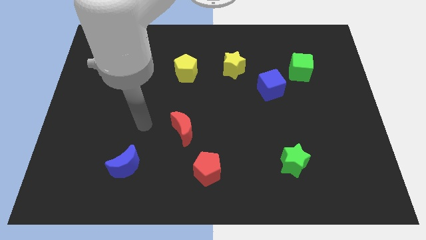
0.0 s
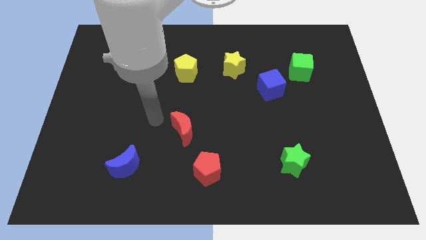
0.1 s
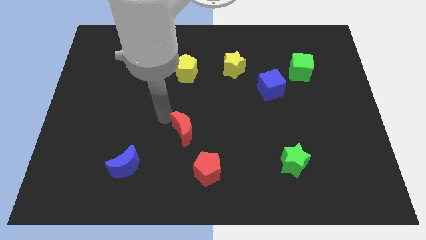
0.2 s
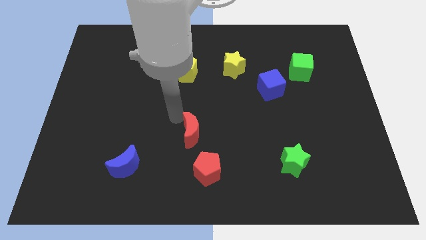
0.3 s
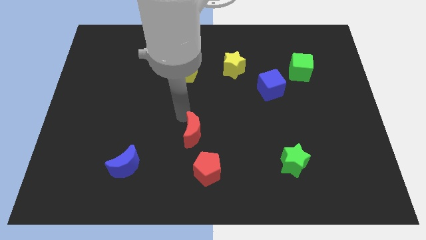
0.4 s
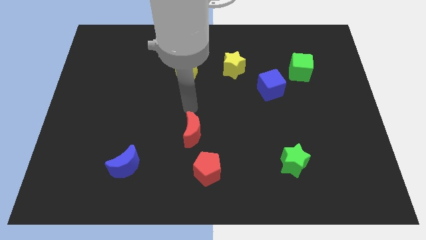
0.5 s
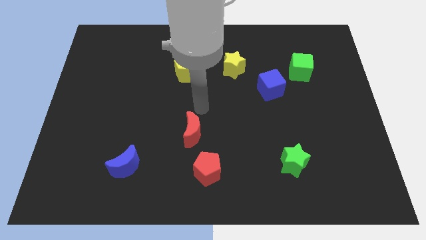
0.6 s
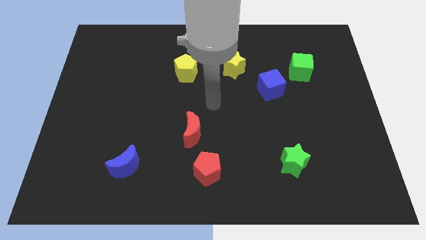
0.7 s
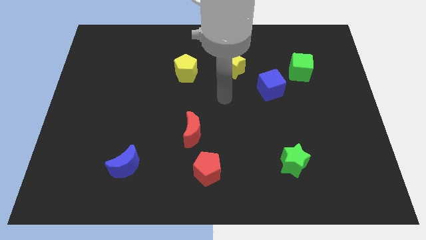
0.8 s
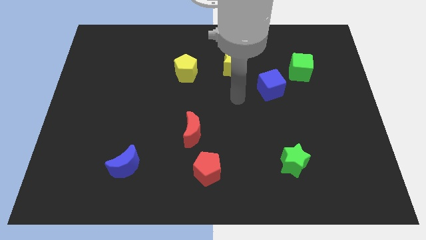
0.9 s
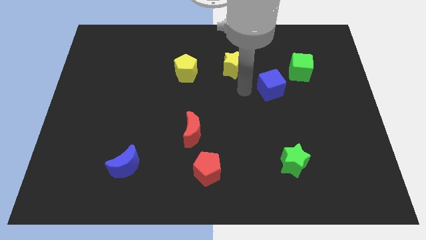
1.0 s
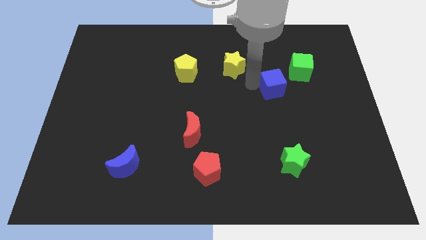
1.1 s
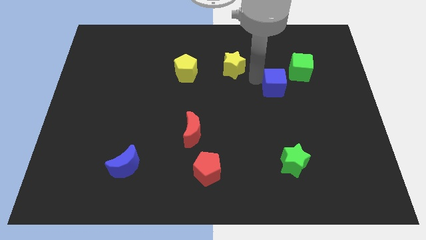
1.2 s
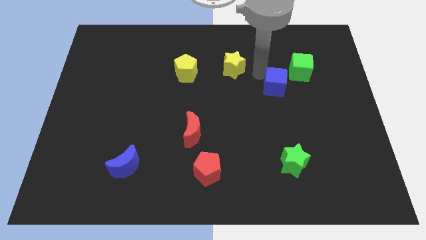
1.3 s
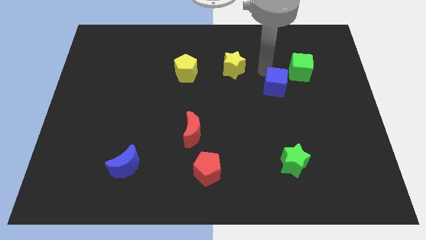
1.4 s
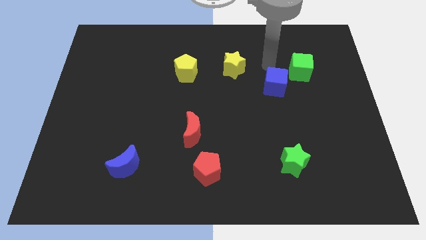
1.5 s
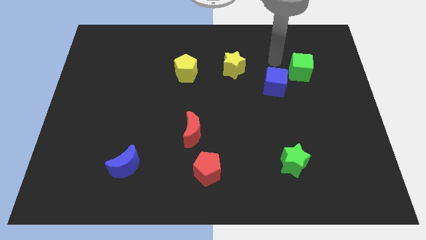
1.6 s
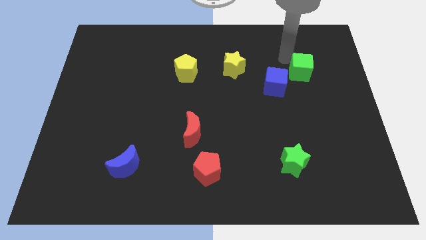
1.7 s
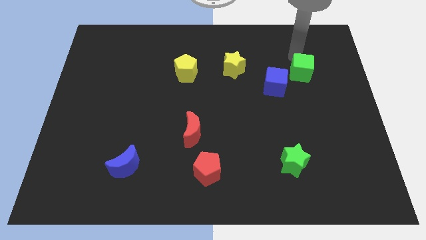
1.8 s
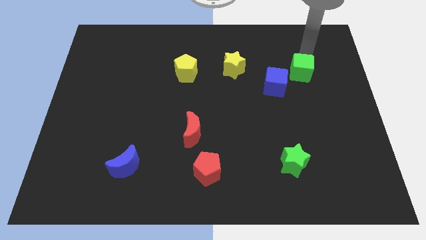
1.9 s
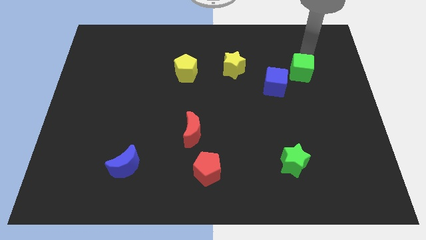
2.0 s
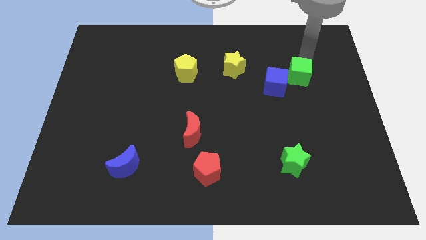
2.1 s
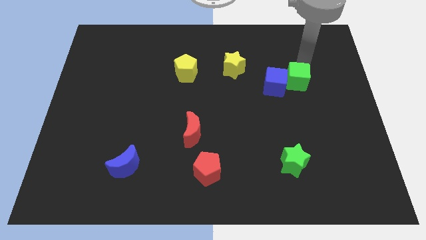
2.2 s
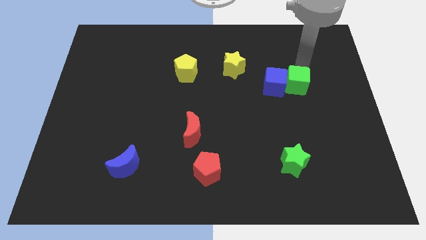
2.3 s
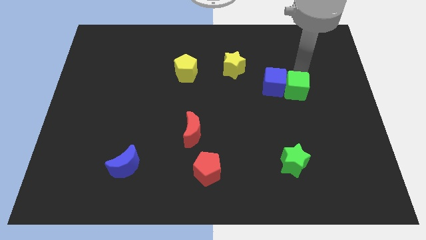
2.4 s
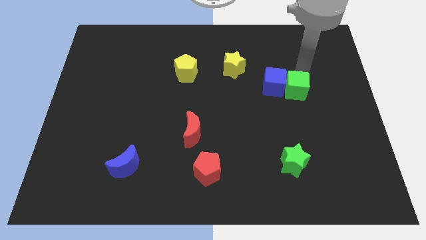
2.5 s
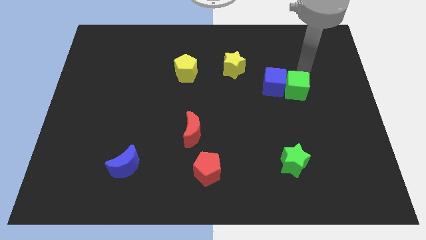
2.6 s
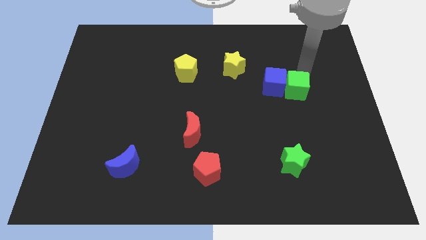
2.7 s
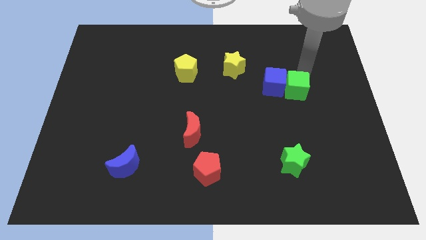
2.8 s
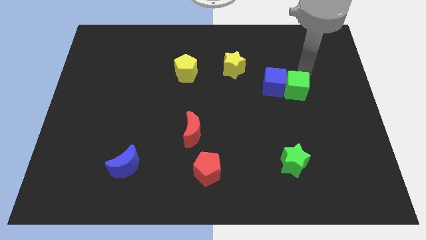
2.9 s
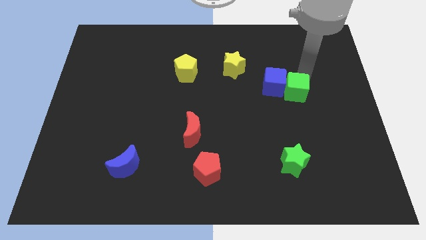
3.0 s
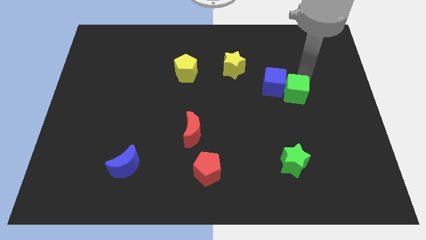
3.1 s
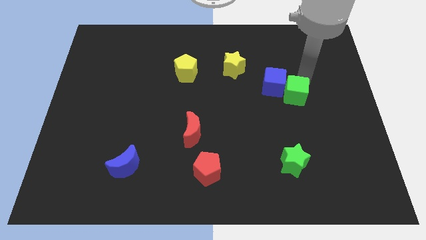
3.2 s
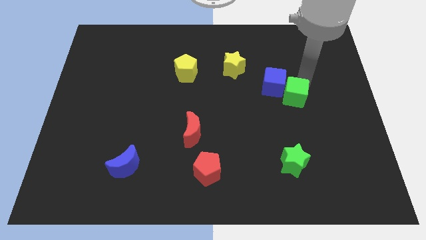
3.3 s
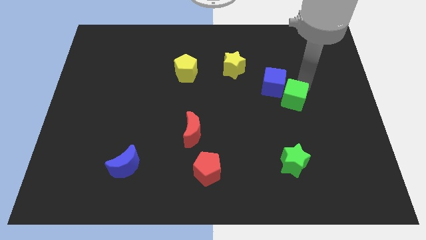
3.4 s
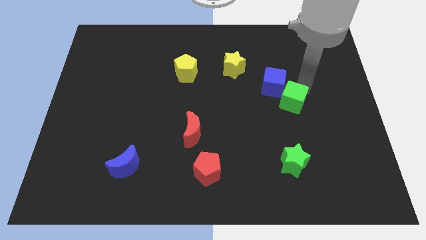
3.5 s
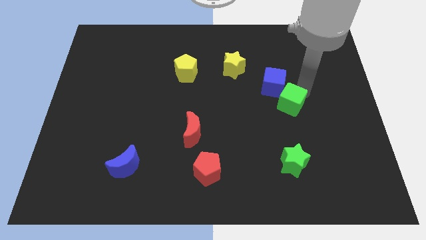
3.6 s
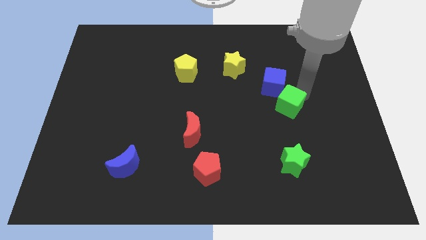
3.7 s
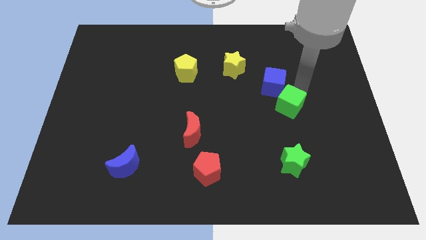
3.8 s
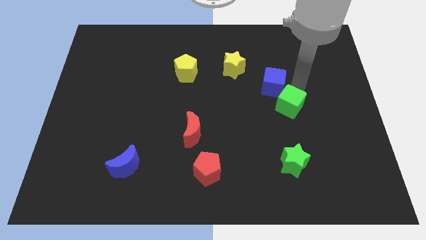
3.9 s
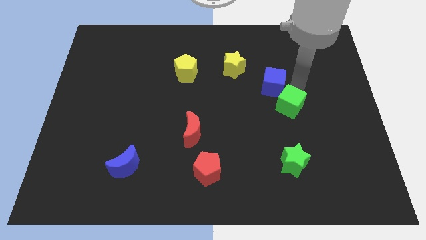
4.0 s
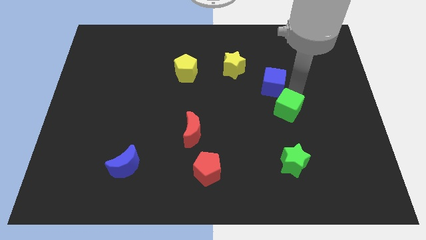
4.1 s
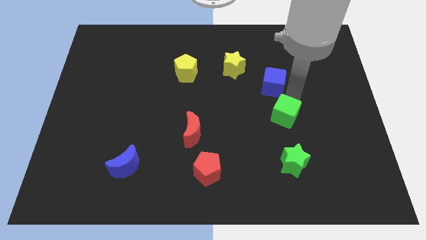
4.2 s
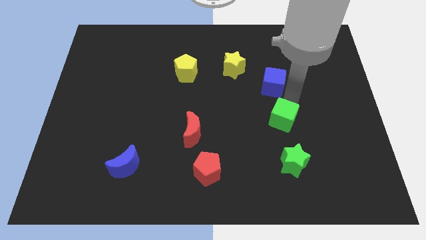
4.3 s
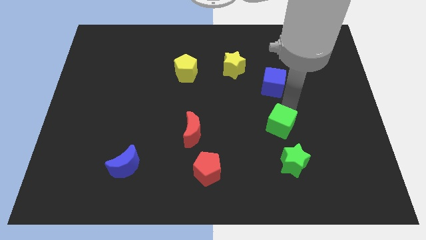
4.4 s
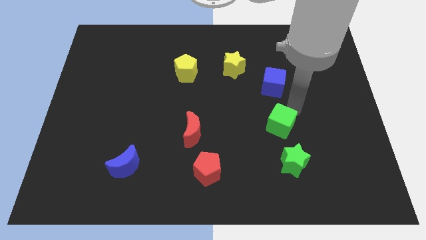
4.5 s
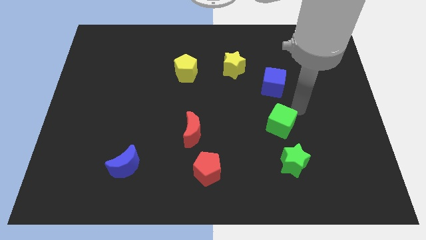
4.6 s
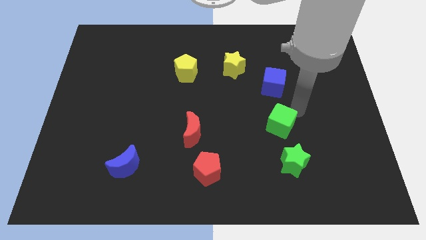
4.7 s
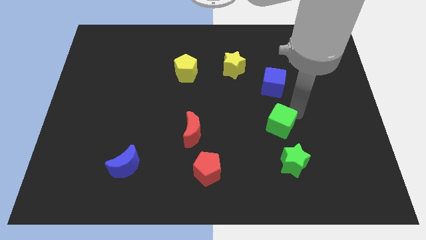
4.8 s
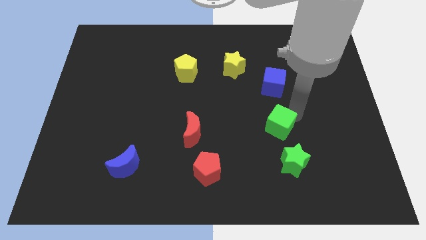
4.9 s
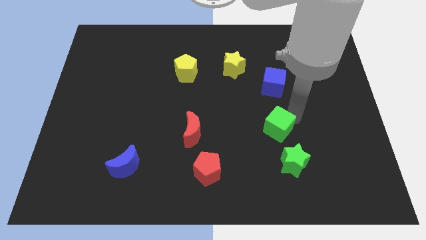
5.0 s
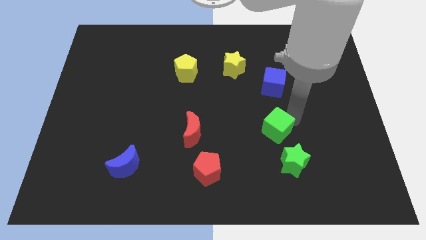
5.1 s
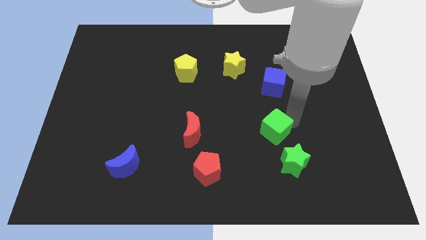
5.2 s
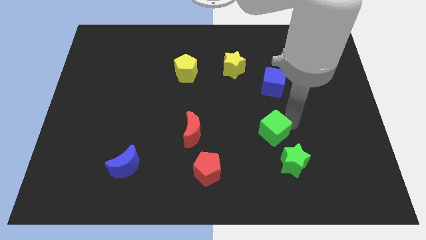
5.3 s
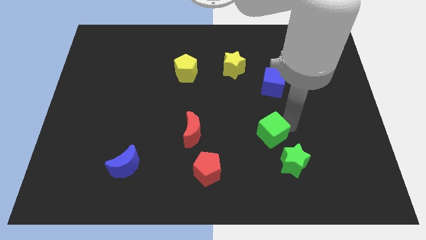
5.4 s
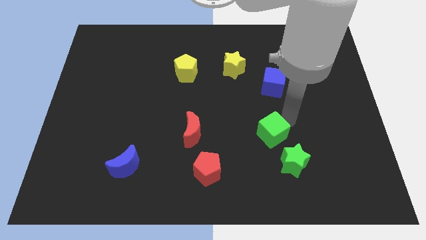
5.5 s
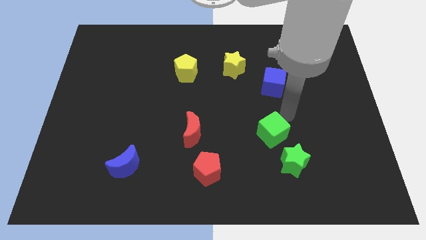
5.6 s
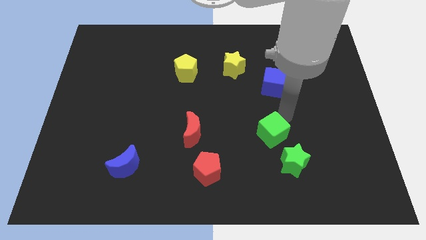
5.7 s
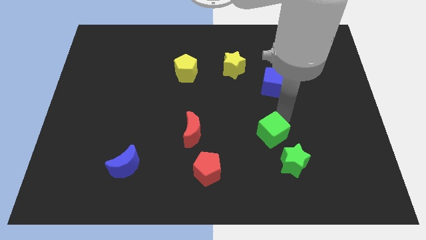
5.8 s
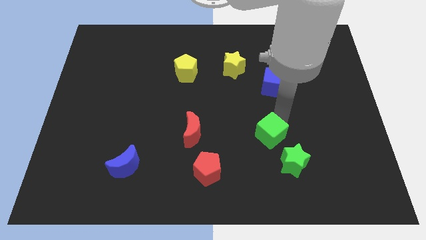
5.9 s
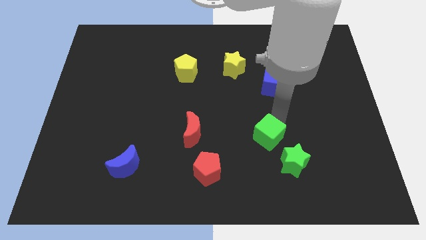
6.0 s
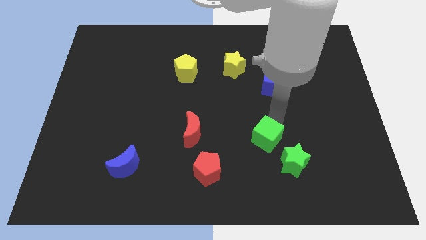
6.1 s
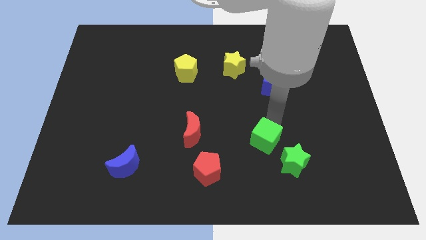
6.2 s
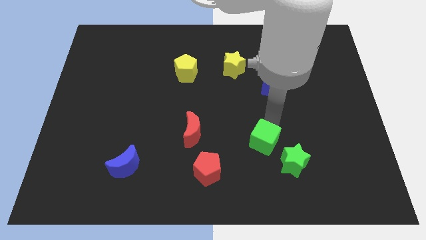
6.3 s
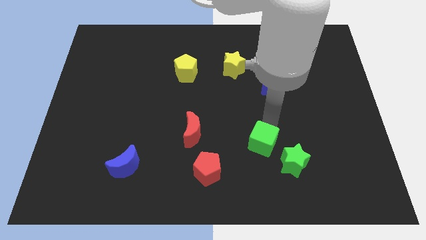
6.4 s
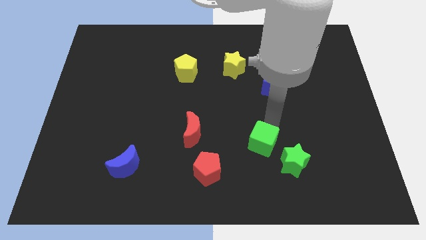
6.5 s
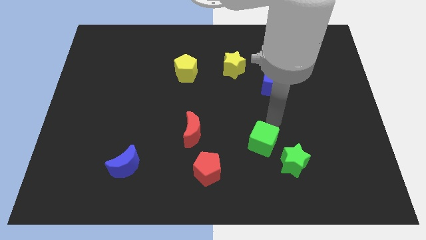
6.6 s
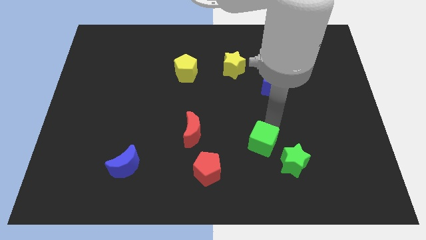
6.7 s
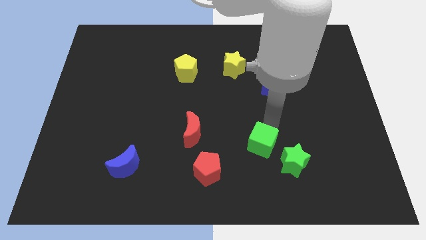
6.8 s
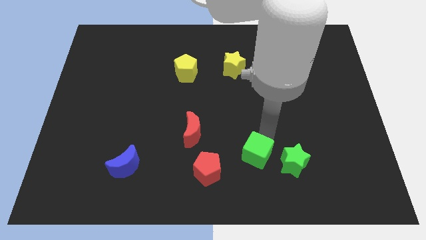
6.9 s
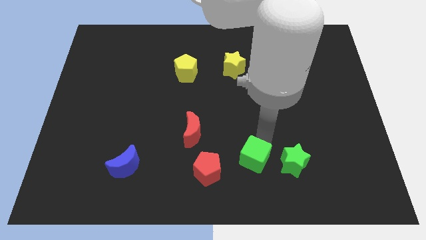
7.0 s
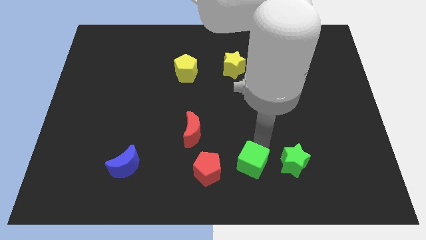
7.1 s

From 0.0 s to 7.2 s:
move the green cube to the bottom
